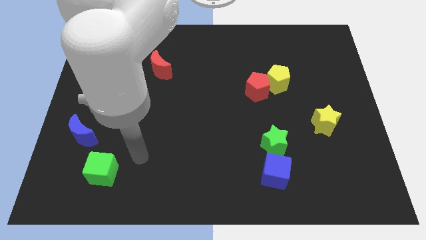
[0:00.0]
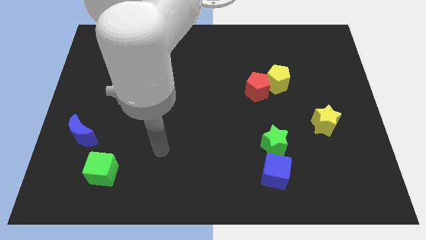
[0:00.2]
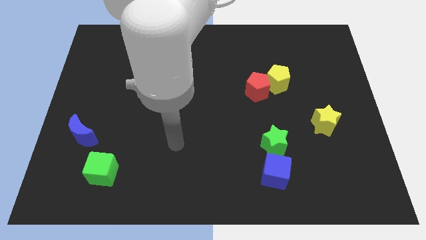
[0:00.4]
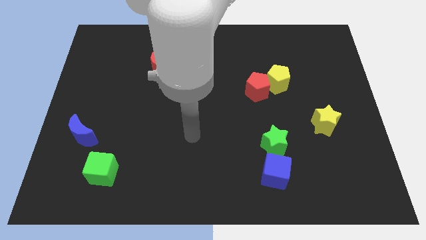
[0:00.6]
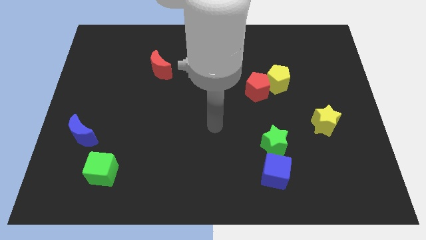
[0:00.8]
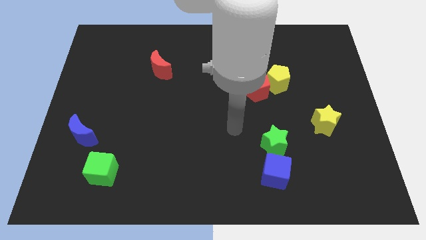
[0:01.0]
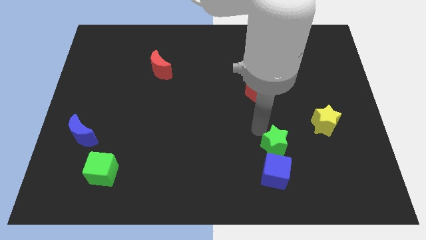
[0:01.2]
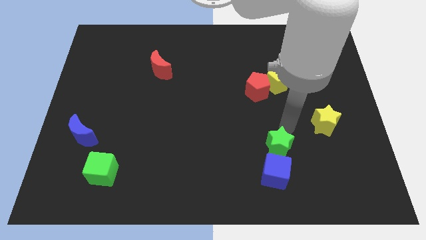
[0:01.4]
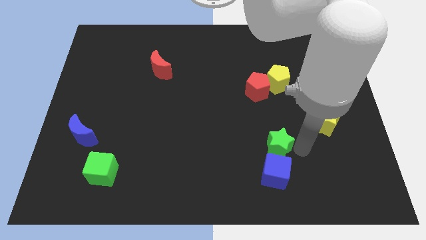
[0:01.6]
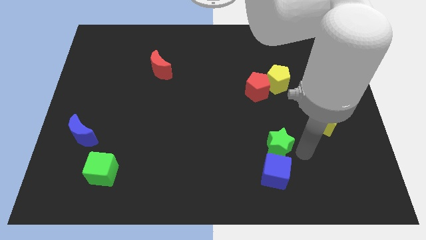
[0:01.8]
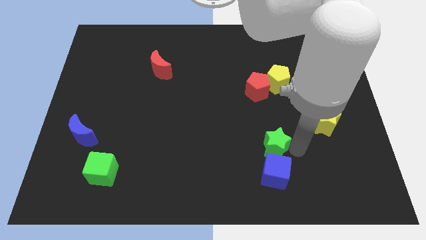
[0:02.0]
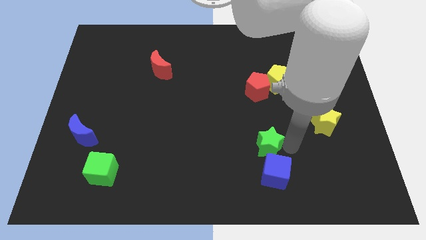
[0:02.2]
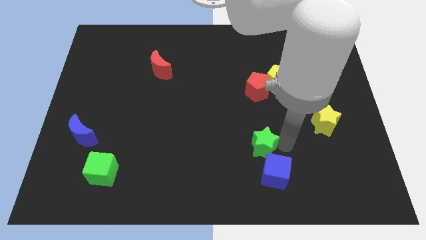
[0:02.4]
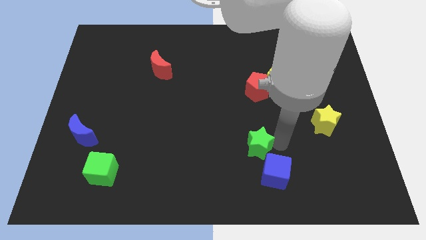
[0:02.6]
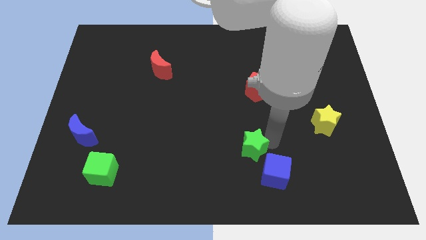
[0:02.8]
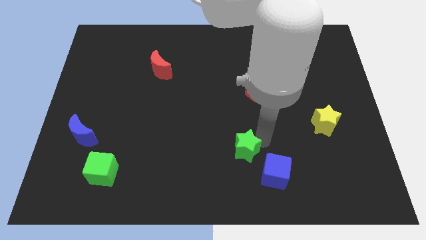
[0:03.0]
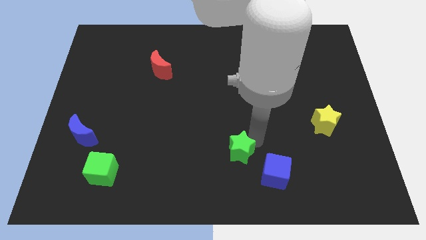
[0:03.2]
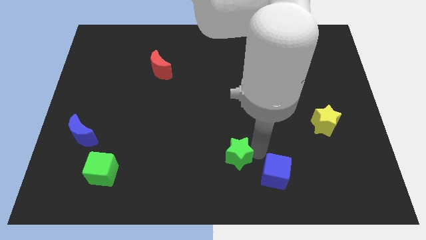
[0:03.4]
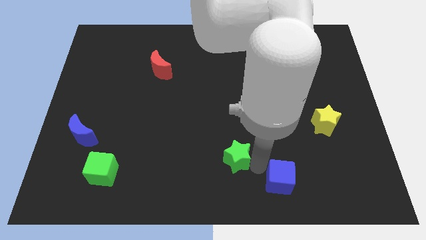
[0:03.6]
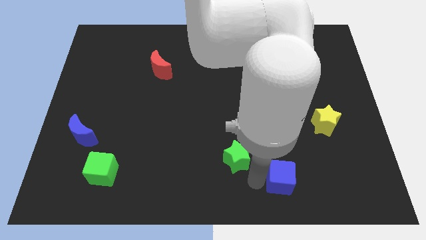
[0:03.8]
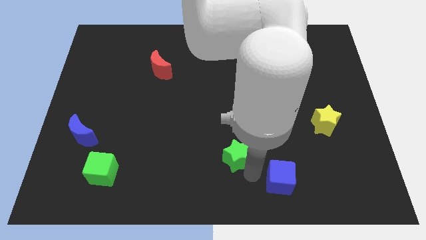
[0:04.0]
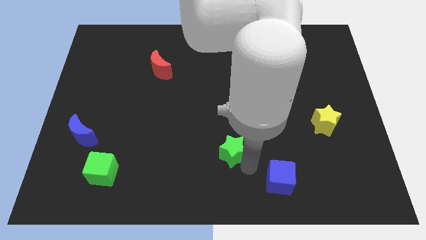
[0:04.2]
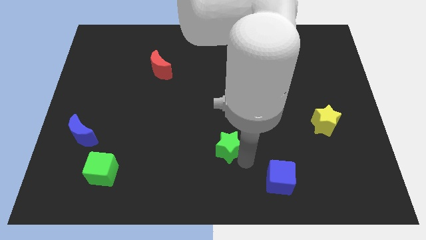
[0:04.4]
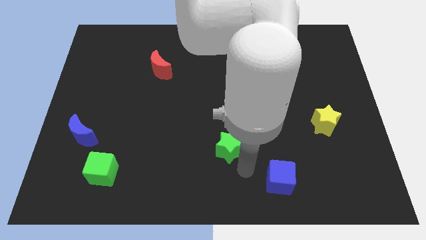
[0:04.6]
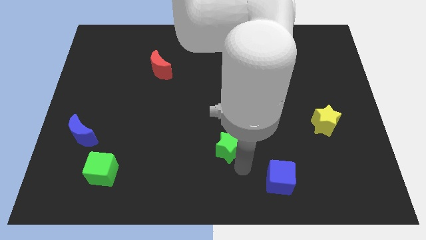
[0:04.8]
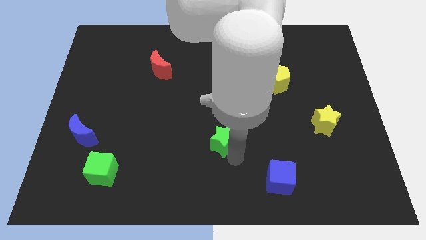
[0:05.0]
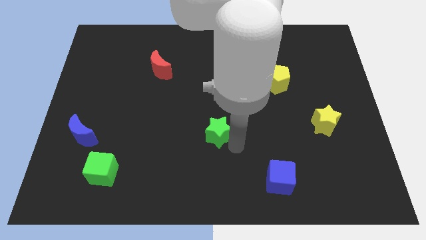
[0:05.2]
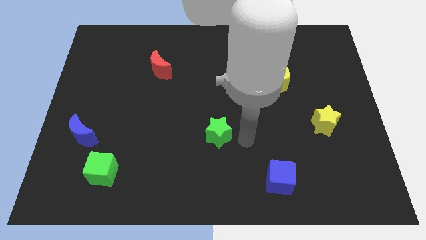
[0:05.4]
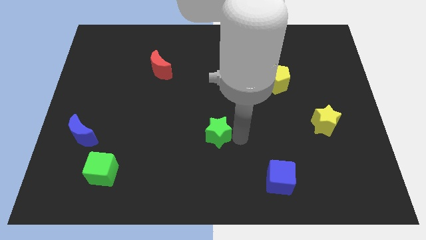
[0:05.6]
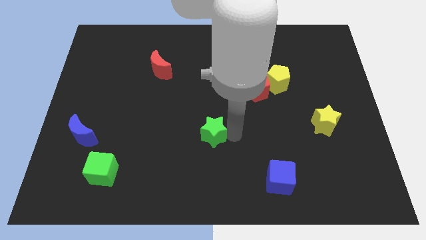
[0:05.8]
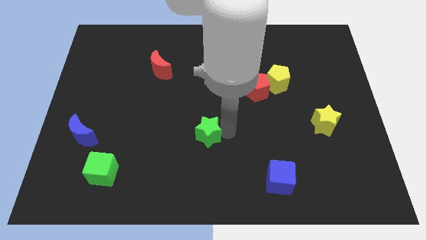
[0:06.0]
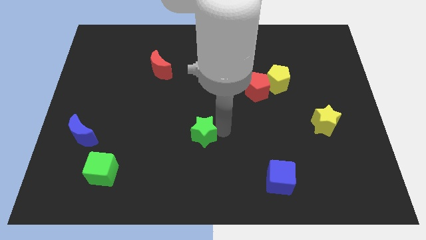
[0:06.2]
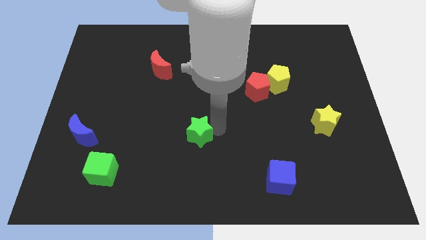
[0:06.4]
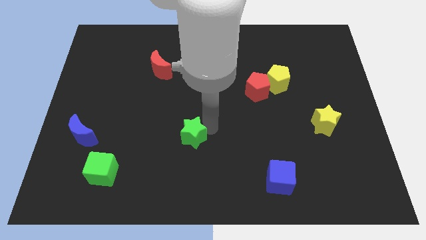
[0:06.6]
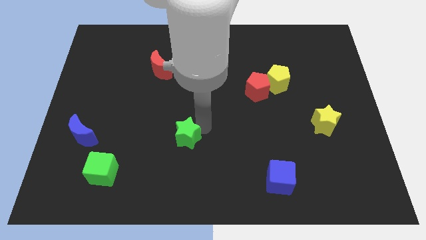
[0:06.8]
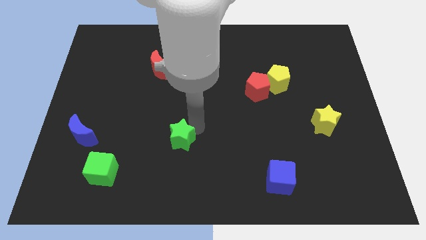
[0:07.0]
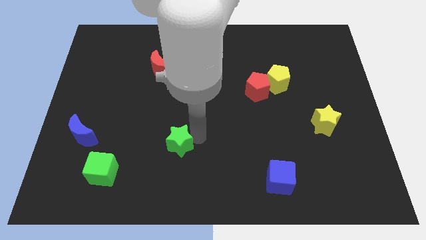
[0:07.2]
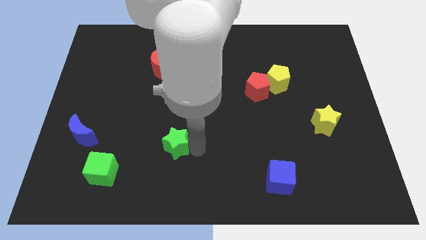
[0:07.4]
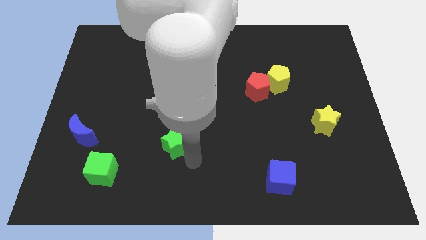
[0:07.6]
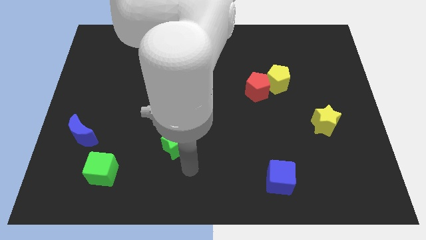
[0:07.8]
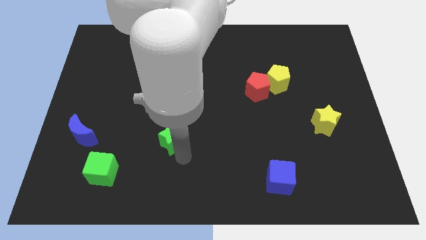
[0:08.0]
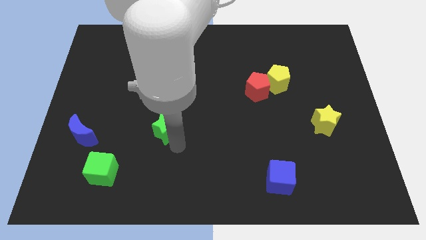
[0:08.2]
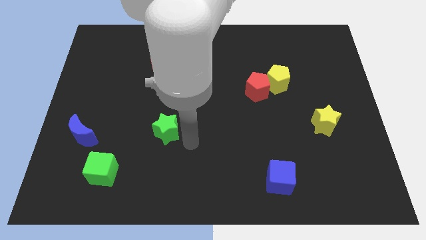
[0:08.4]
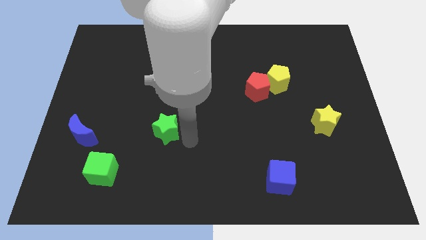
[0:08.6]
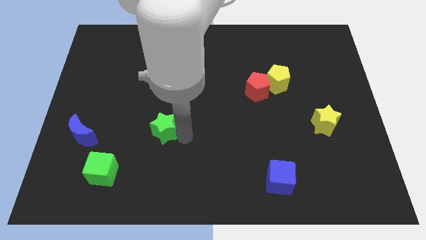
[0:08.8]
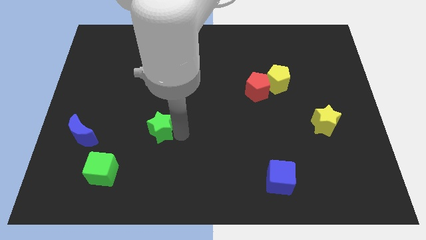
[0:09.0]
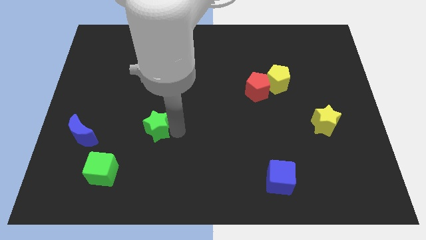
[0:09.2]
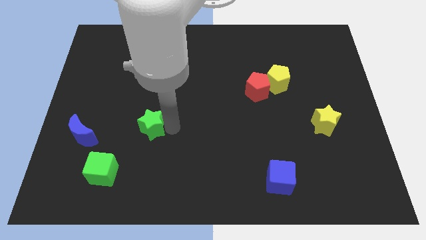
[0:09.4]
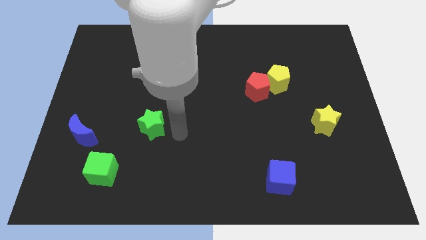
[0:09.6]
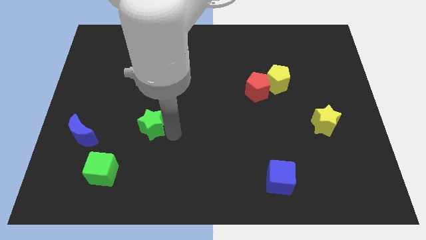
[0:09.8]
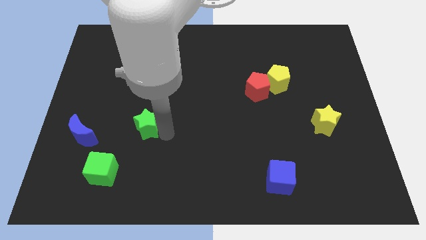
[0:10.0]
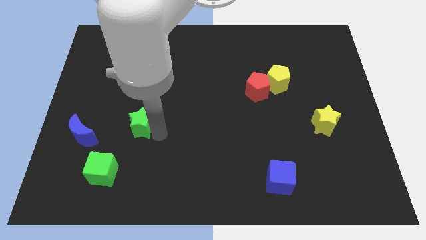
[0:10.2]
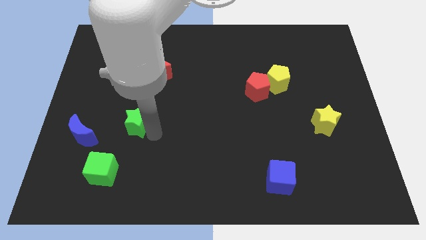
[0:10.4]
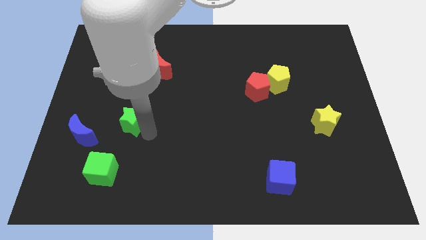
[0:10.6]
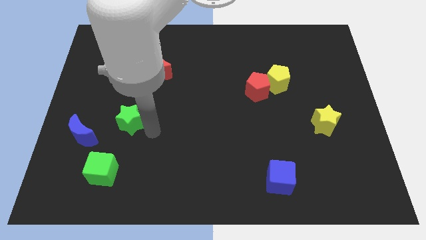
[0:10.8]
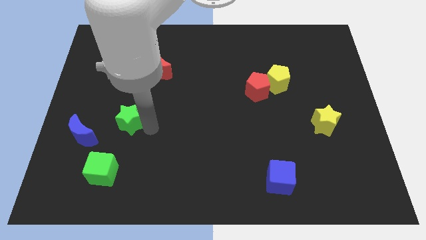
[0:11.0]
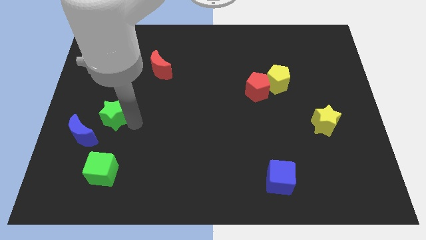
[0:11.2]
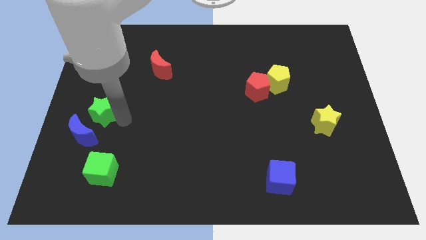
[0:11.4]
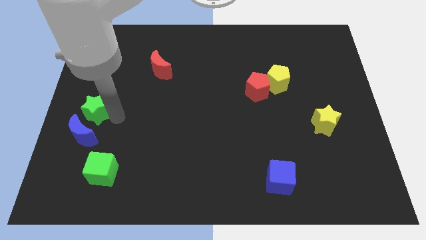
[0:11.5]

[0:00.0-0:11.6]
put the green star to the center left

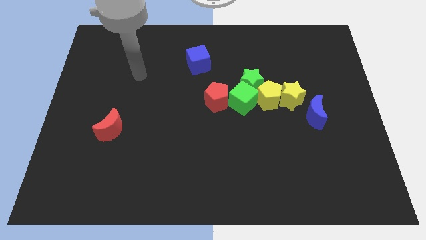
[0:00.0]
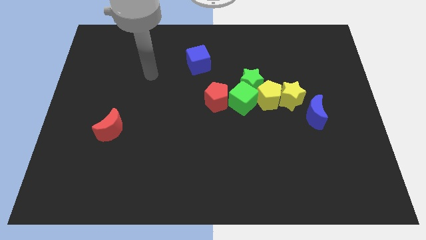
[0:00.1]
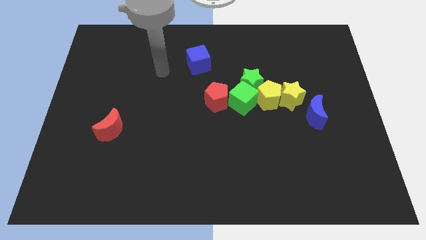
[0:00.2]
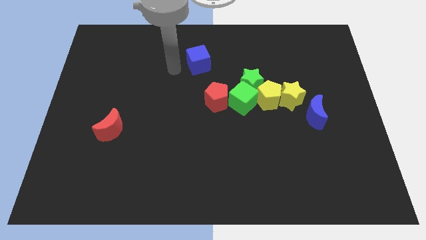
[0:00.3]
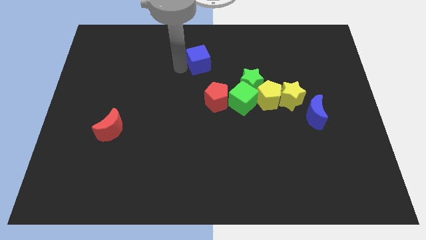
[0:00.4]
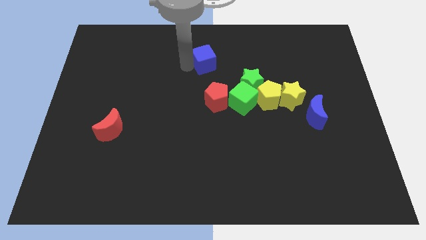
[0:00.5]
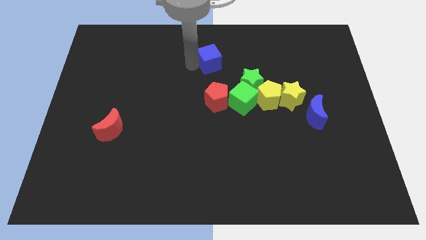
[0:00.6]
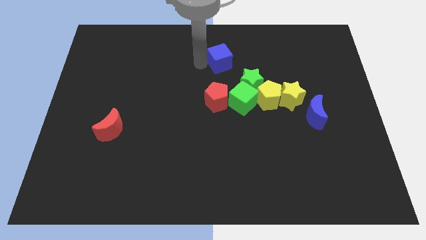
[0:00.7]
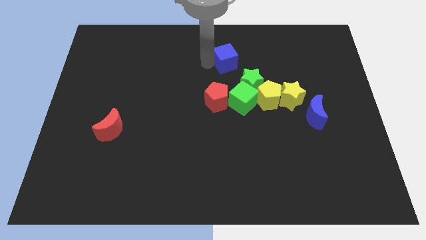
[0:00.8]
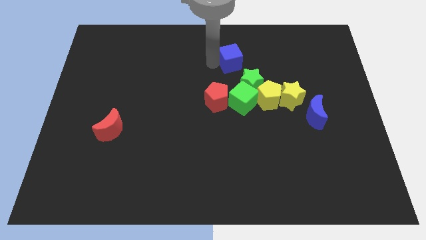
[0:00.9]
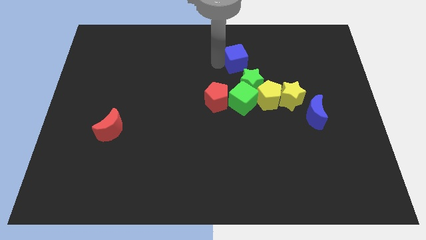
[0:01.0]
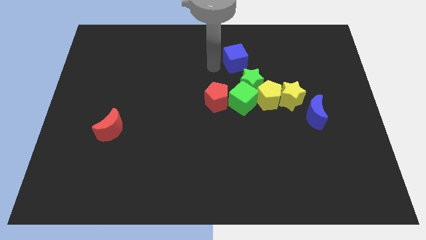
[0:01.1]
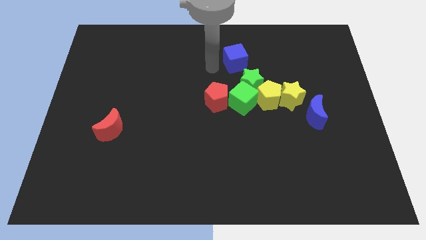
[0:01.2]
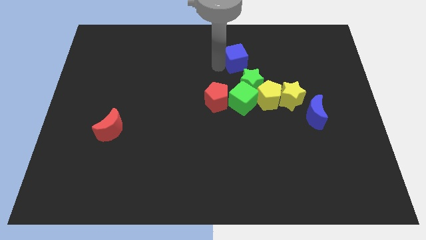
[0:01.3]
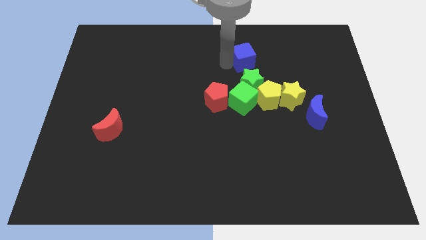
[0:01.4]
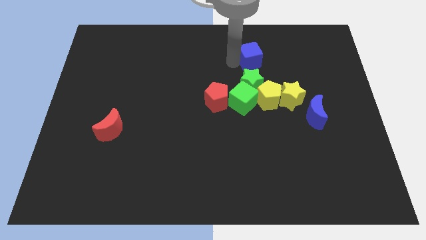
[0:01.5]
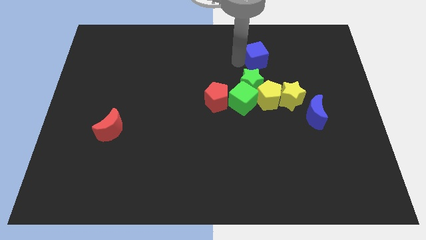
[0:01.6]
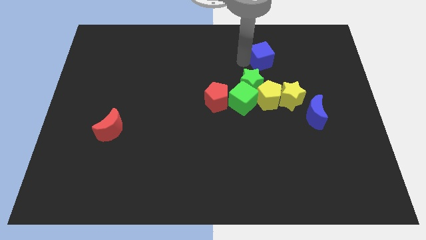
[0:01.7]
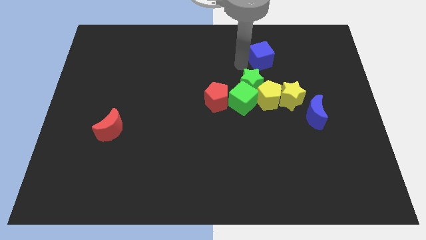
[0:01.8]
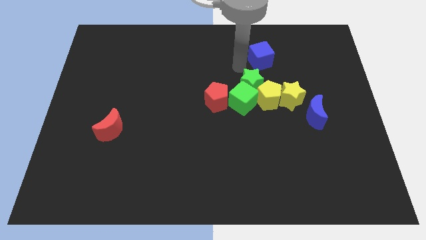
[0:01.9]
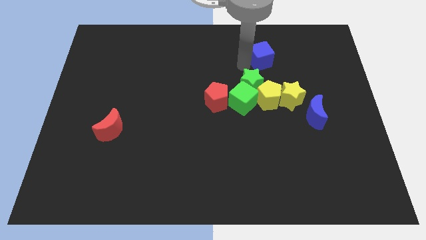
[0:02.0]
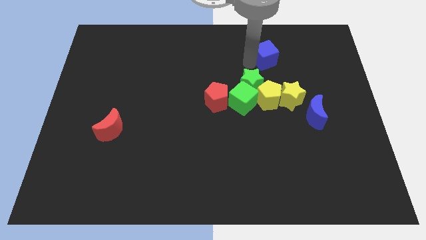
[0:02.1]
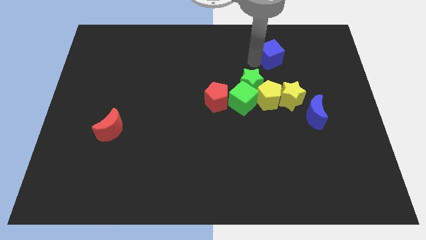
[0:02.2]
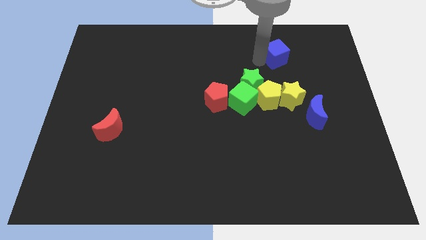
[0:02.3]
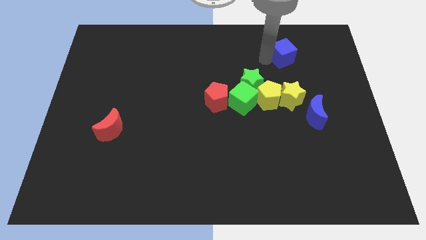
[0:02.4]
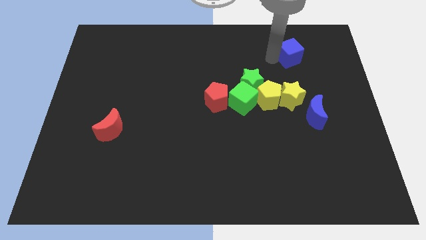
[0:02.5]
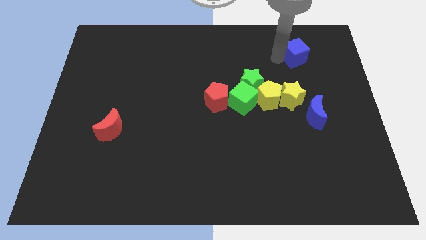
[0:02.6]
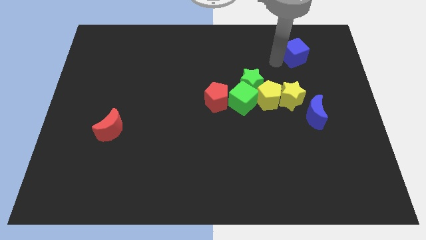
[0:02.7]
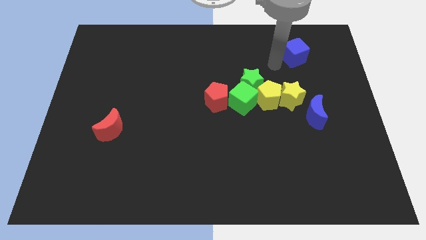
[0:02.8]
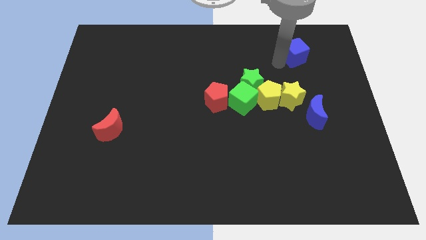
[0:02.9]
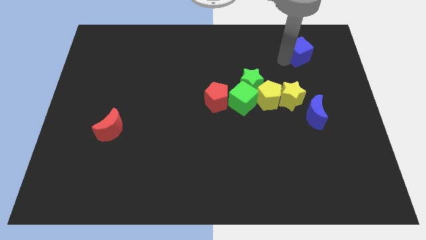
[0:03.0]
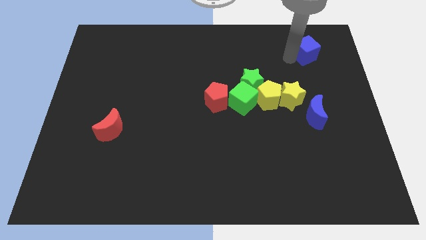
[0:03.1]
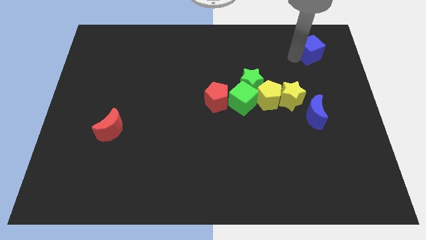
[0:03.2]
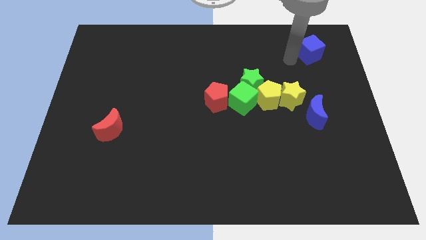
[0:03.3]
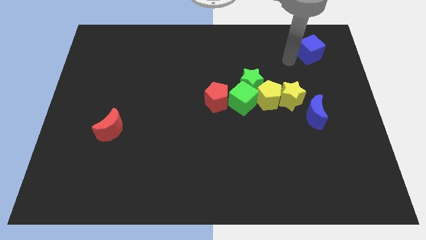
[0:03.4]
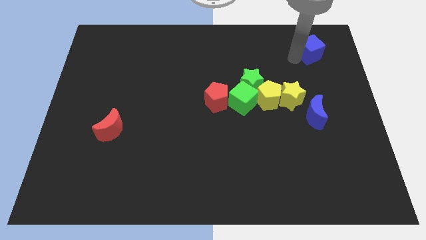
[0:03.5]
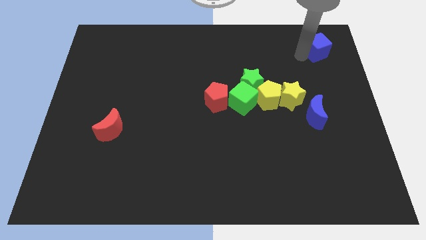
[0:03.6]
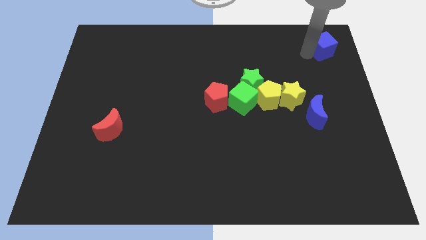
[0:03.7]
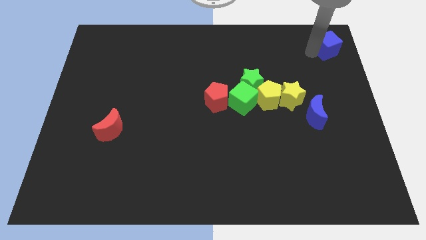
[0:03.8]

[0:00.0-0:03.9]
slide the blue cube to the top right corner
